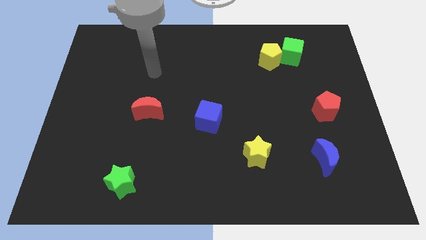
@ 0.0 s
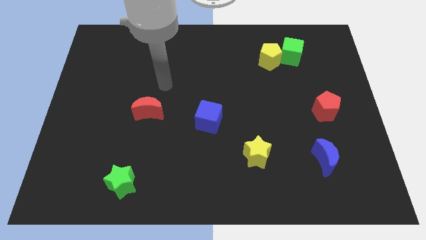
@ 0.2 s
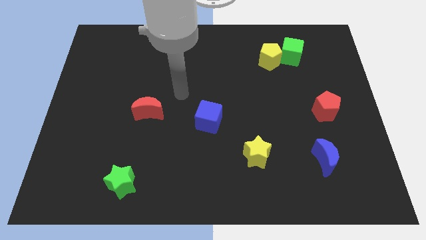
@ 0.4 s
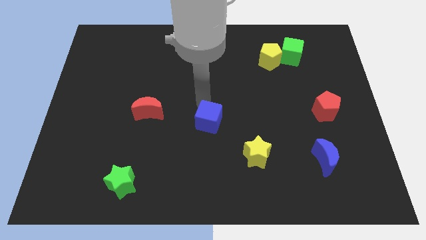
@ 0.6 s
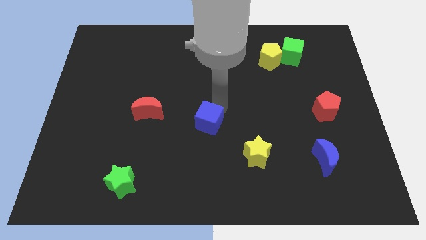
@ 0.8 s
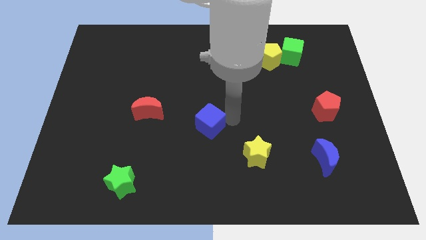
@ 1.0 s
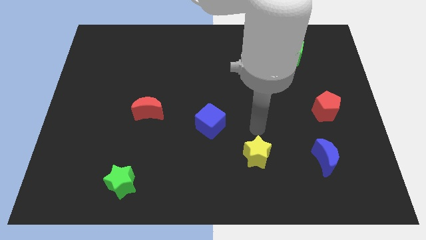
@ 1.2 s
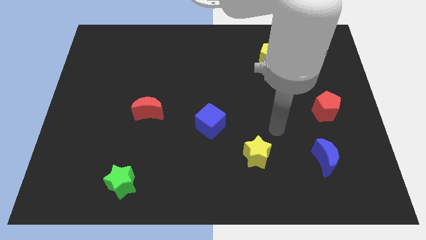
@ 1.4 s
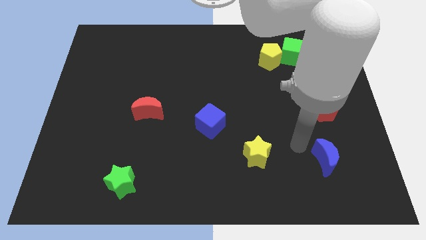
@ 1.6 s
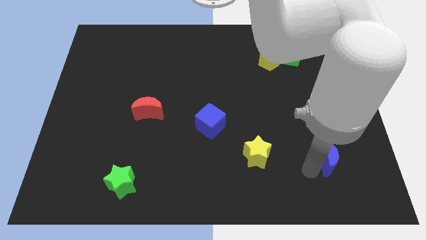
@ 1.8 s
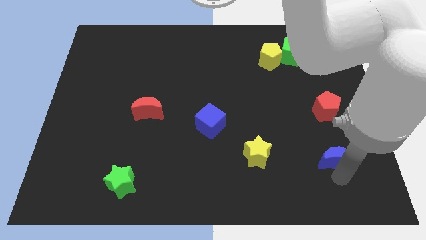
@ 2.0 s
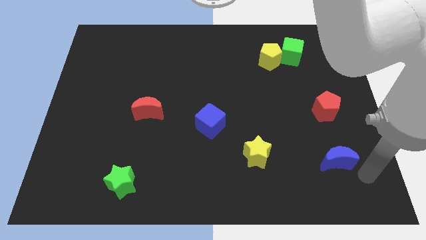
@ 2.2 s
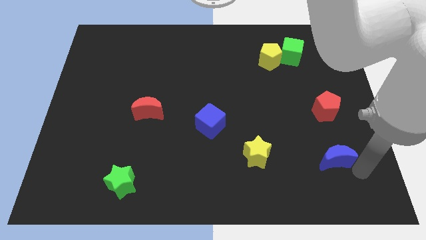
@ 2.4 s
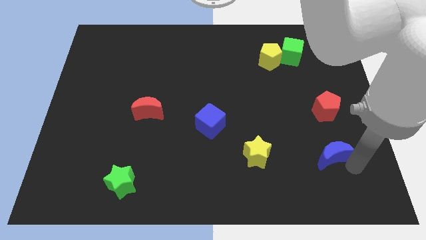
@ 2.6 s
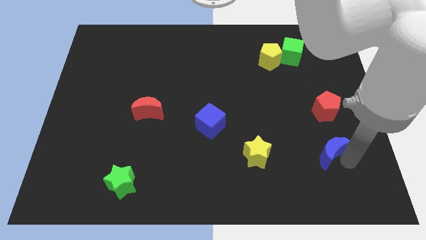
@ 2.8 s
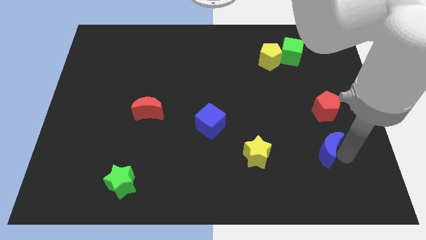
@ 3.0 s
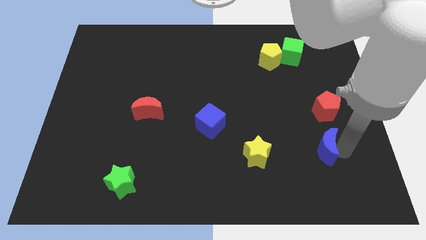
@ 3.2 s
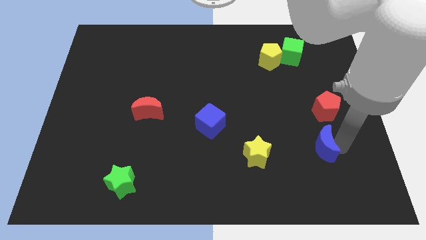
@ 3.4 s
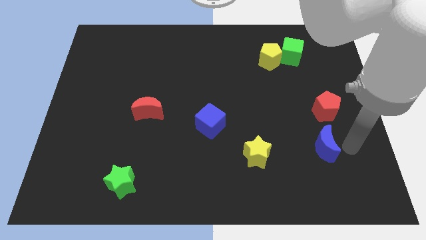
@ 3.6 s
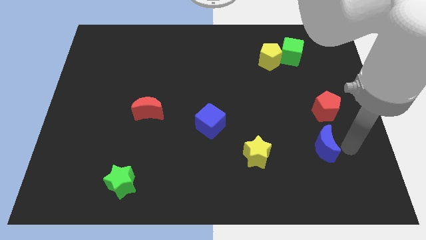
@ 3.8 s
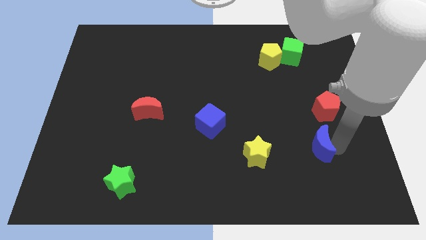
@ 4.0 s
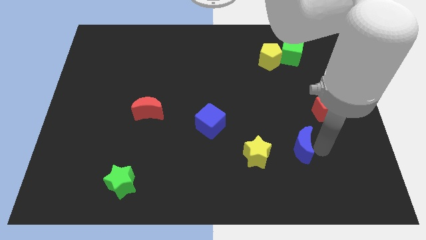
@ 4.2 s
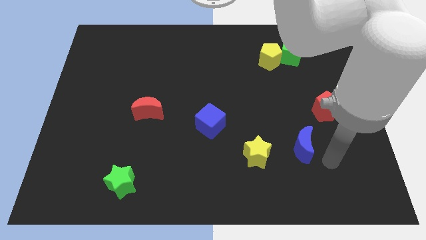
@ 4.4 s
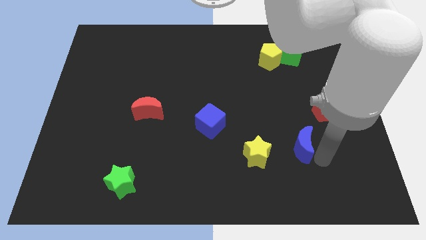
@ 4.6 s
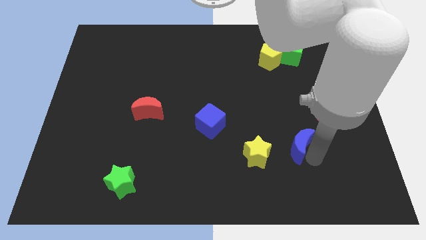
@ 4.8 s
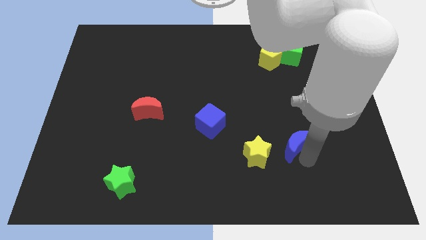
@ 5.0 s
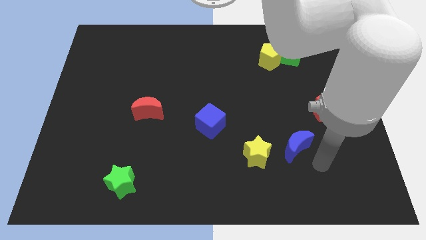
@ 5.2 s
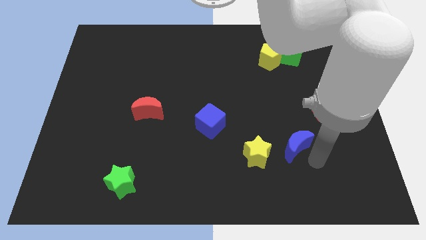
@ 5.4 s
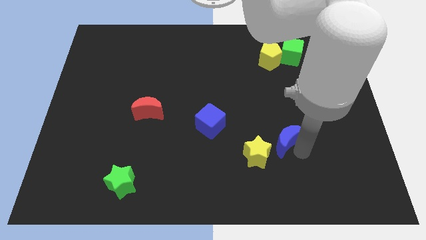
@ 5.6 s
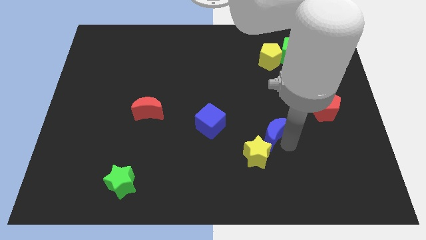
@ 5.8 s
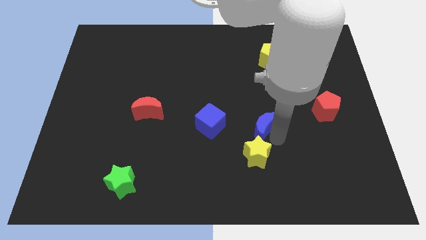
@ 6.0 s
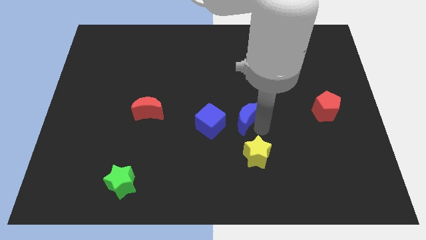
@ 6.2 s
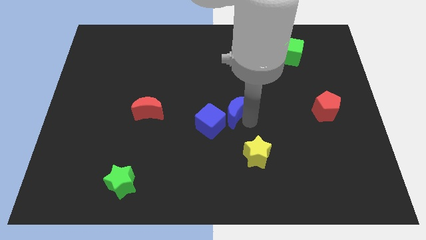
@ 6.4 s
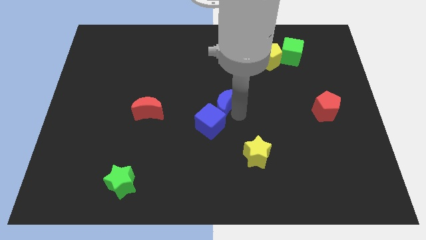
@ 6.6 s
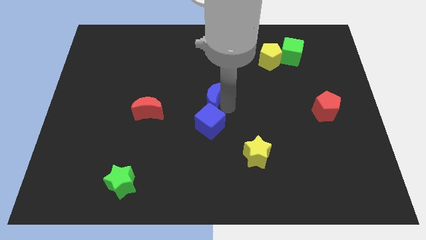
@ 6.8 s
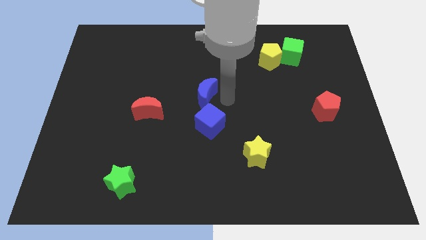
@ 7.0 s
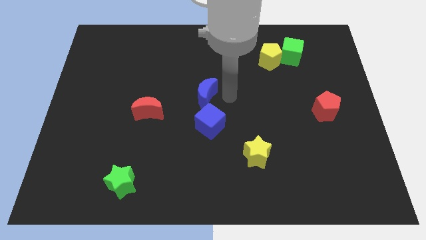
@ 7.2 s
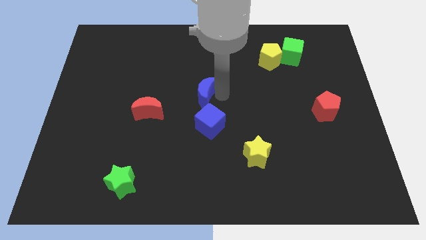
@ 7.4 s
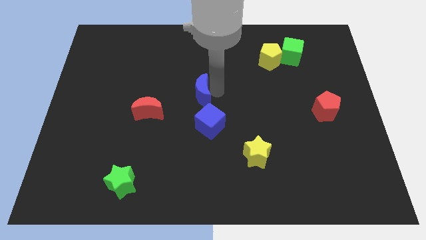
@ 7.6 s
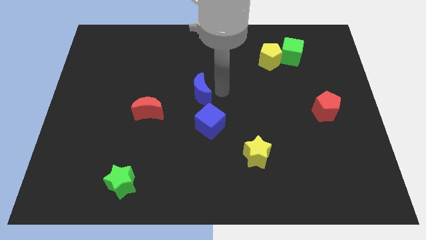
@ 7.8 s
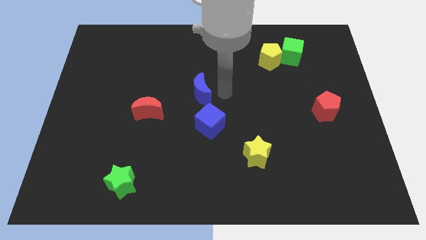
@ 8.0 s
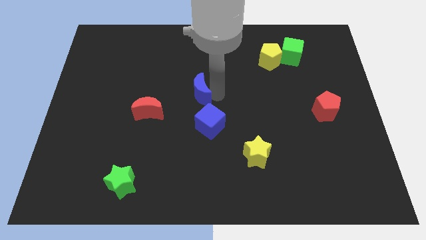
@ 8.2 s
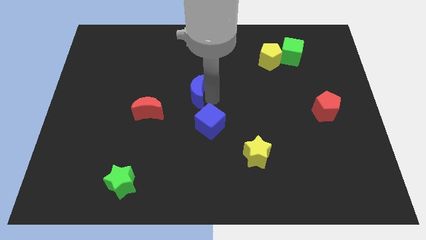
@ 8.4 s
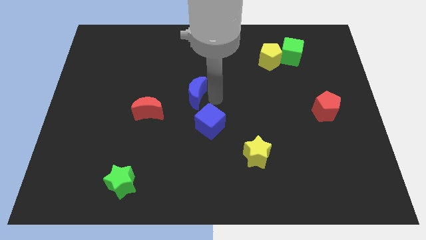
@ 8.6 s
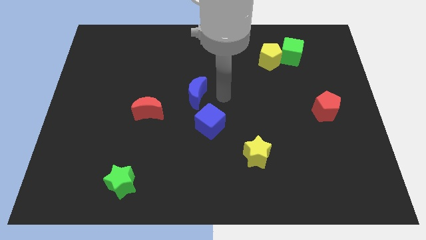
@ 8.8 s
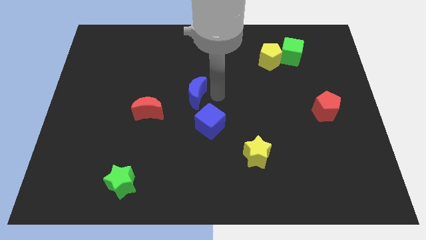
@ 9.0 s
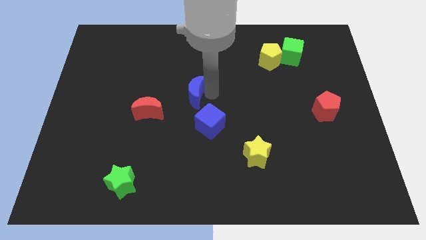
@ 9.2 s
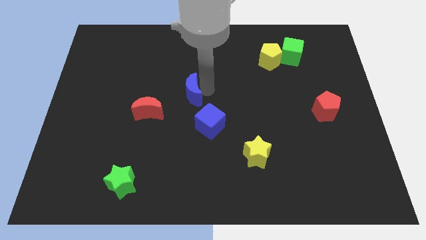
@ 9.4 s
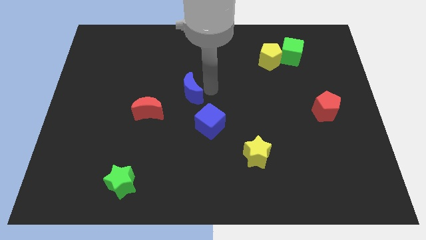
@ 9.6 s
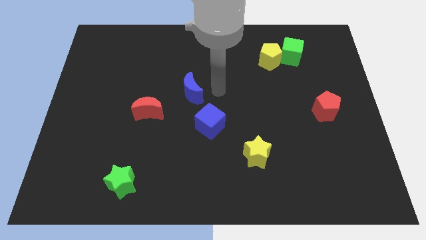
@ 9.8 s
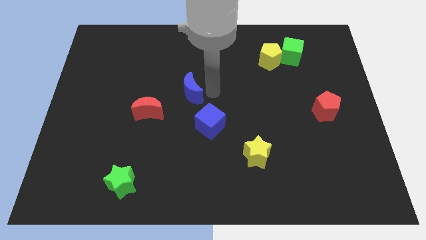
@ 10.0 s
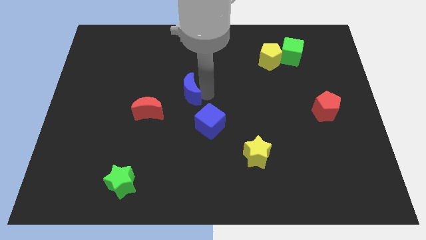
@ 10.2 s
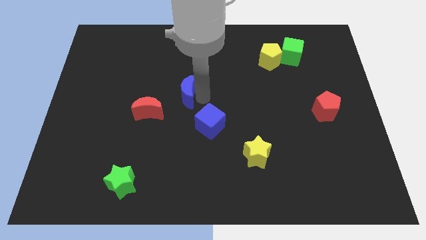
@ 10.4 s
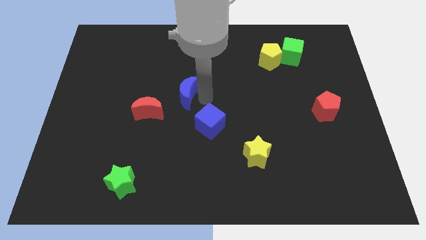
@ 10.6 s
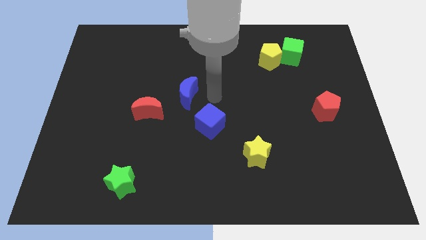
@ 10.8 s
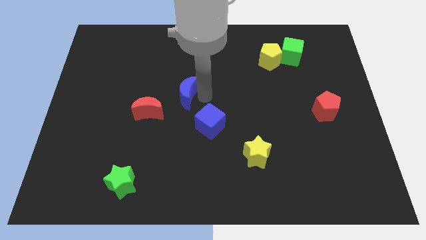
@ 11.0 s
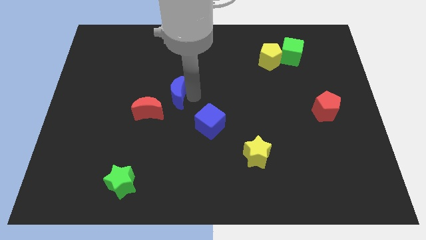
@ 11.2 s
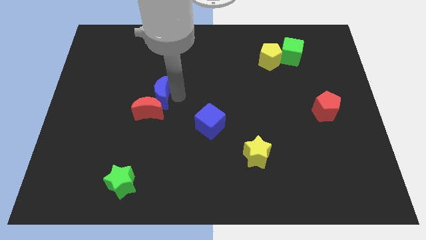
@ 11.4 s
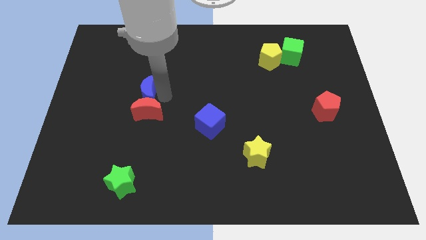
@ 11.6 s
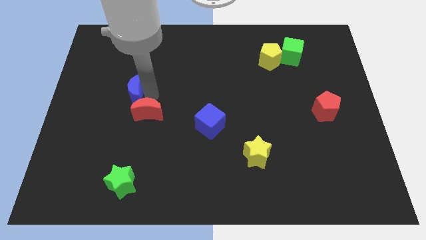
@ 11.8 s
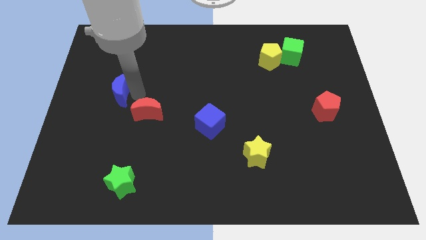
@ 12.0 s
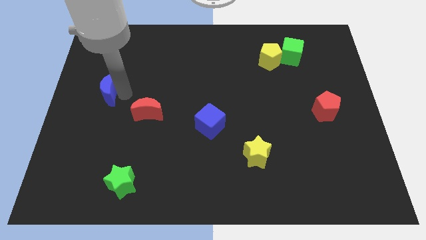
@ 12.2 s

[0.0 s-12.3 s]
put the blue moon to the center left

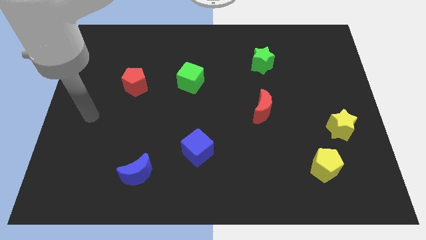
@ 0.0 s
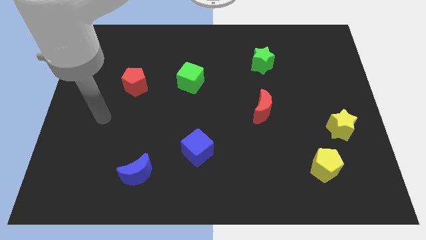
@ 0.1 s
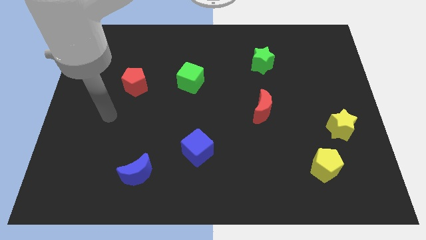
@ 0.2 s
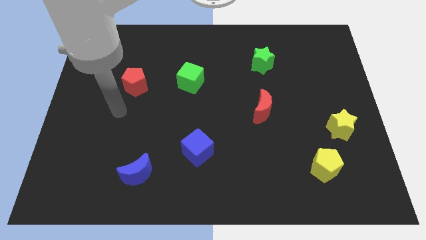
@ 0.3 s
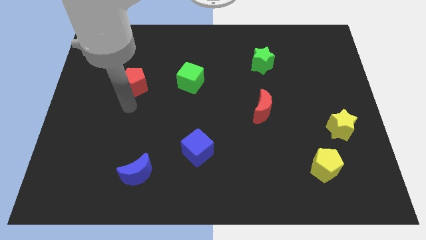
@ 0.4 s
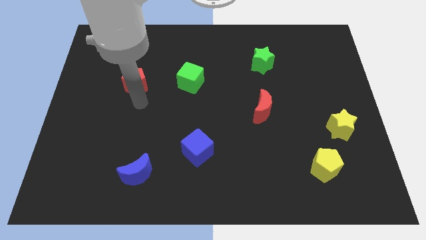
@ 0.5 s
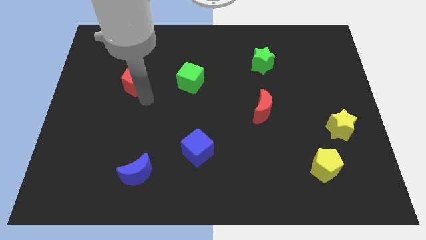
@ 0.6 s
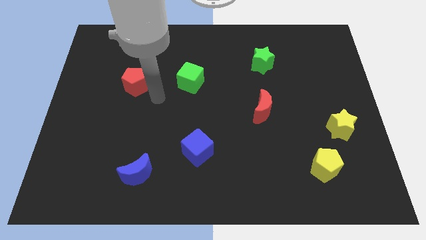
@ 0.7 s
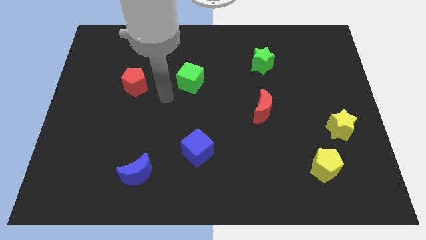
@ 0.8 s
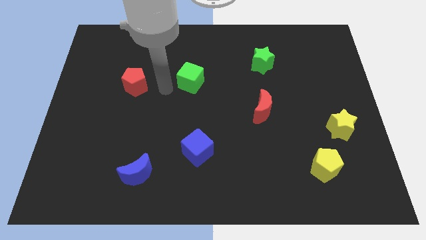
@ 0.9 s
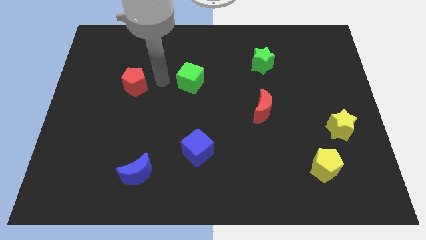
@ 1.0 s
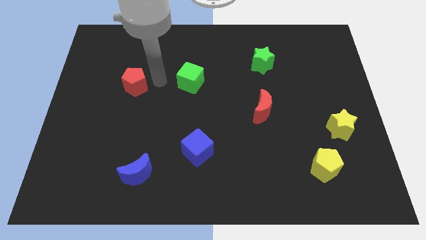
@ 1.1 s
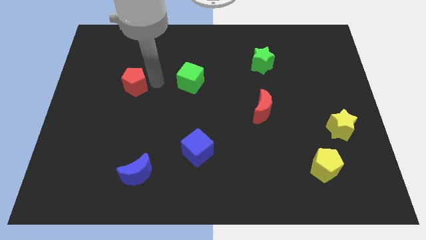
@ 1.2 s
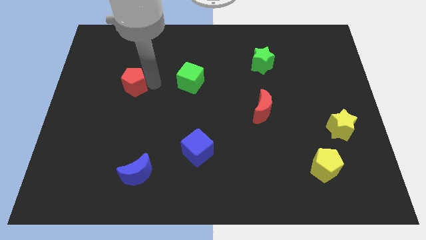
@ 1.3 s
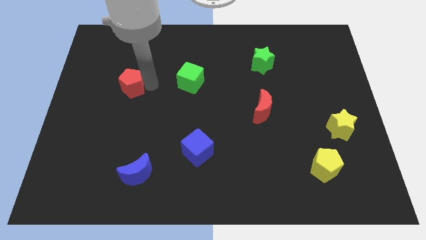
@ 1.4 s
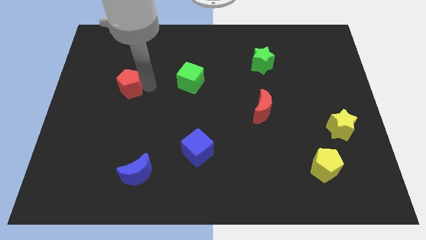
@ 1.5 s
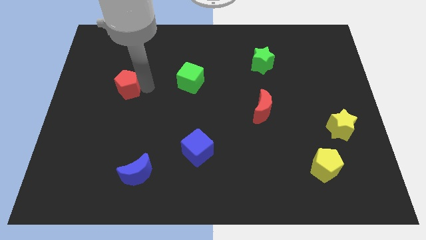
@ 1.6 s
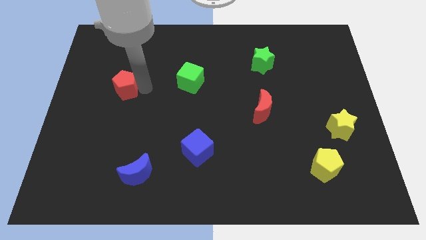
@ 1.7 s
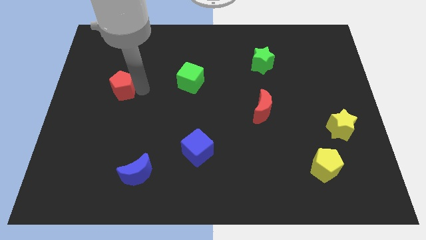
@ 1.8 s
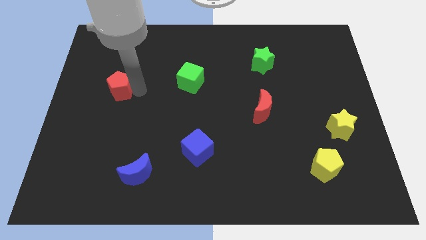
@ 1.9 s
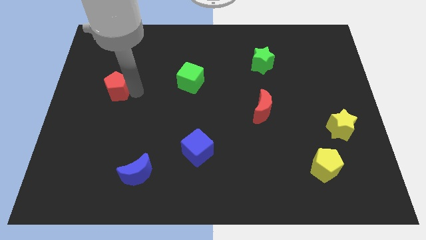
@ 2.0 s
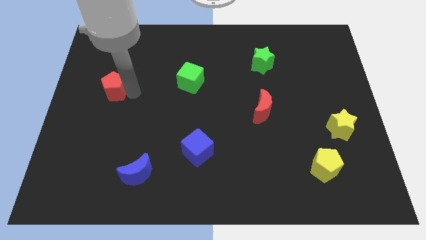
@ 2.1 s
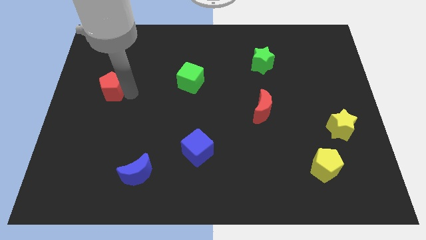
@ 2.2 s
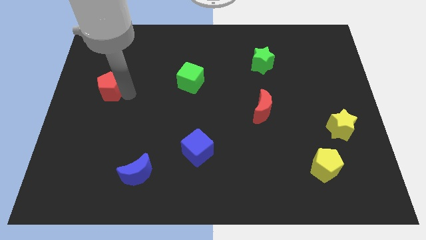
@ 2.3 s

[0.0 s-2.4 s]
put the red pentagon to the left side of the board

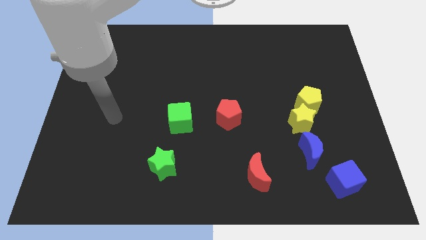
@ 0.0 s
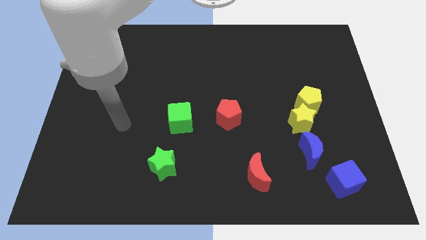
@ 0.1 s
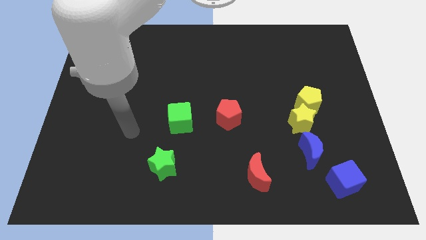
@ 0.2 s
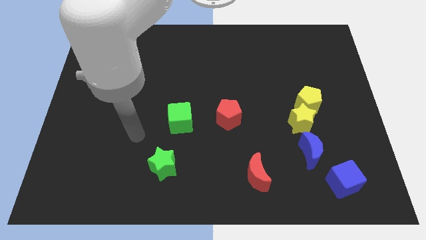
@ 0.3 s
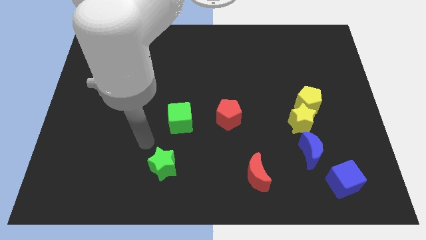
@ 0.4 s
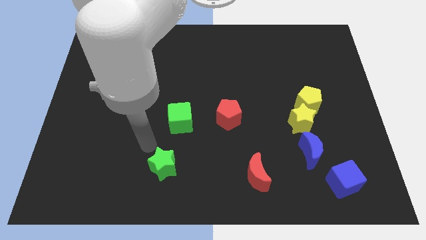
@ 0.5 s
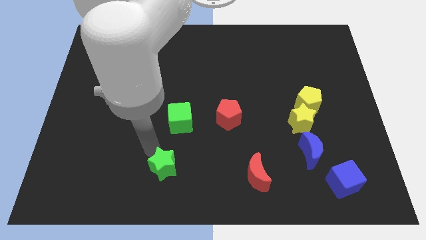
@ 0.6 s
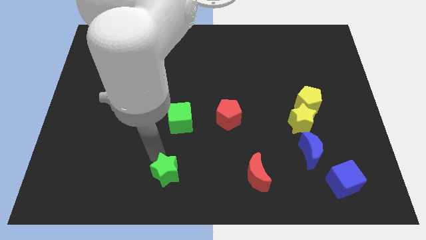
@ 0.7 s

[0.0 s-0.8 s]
put the green star to the bottom side
